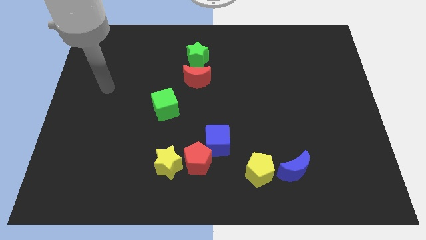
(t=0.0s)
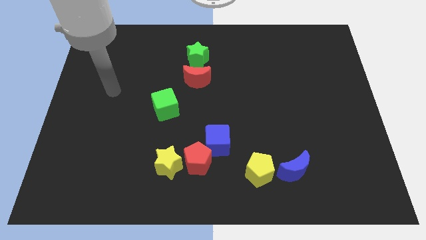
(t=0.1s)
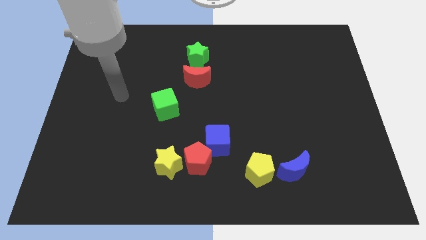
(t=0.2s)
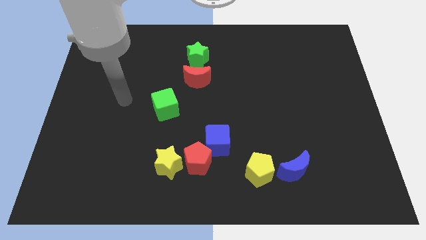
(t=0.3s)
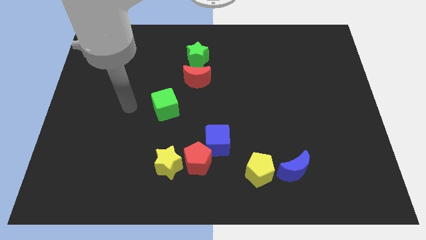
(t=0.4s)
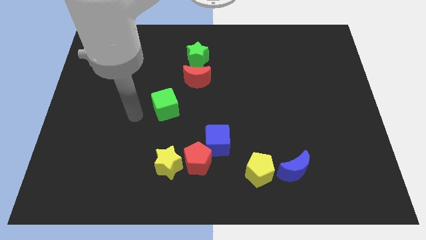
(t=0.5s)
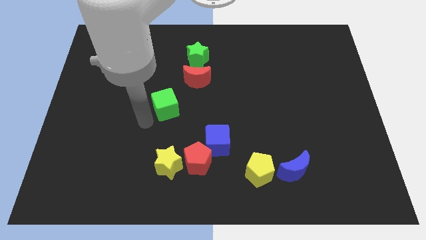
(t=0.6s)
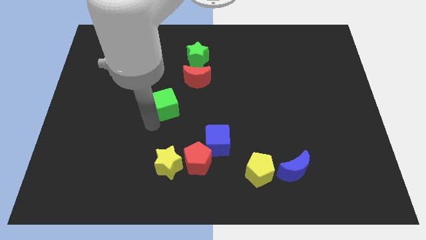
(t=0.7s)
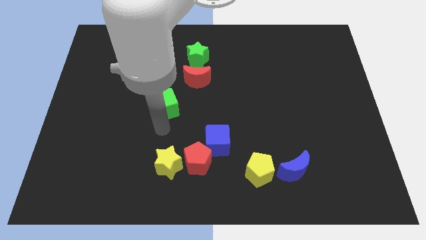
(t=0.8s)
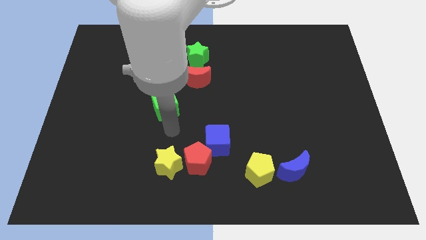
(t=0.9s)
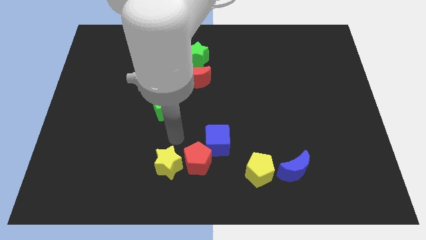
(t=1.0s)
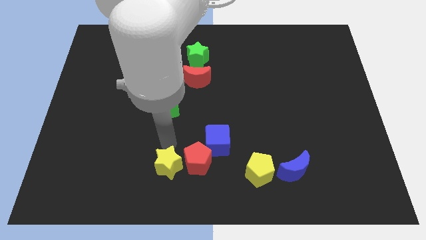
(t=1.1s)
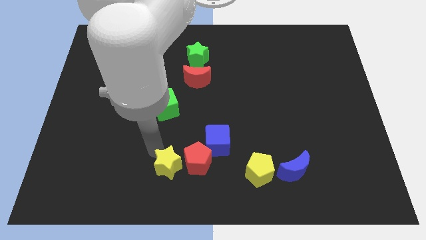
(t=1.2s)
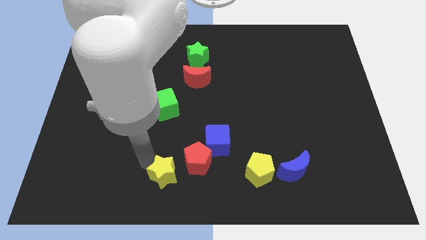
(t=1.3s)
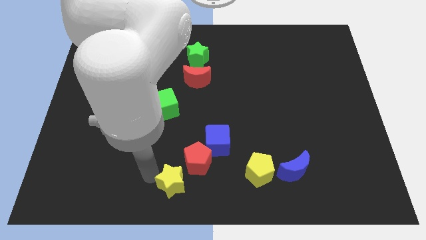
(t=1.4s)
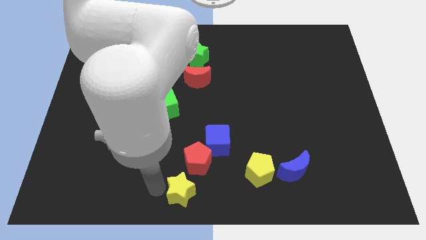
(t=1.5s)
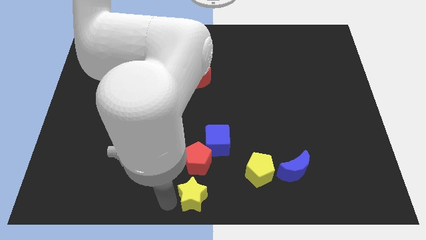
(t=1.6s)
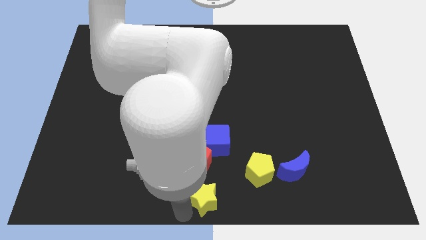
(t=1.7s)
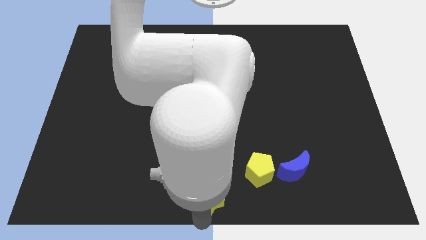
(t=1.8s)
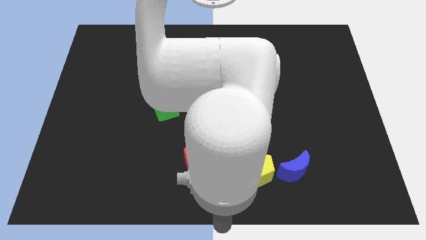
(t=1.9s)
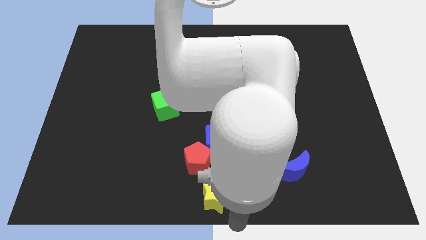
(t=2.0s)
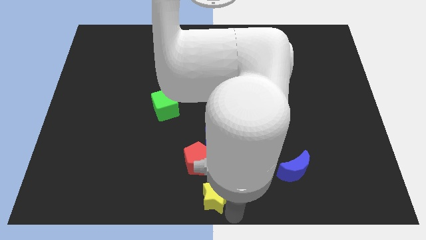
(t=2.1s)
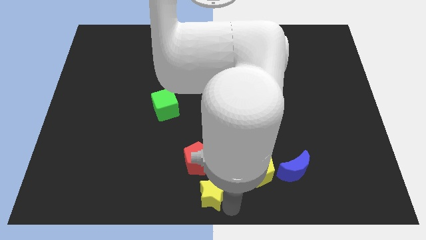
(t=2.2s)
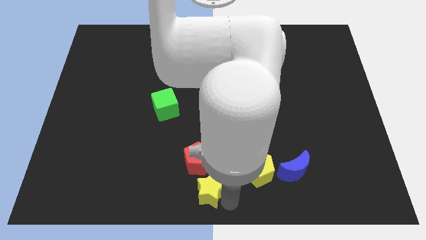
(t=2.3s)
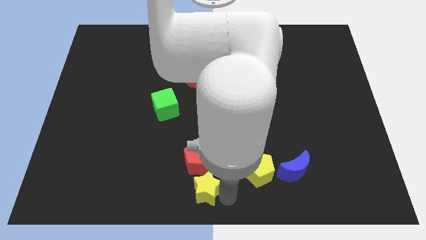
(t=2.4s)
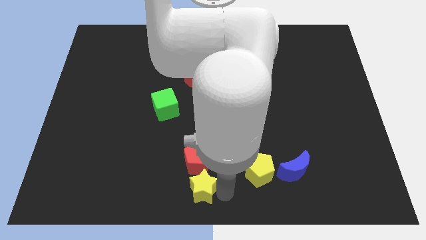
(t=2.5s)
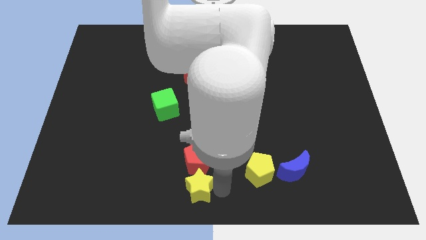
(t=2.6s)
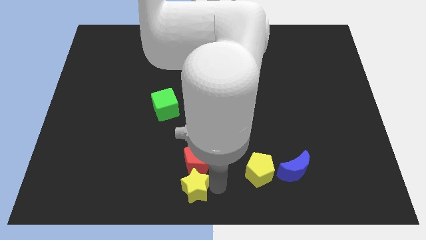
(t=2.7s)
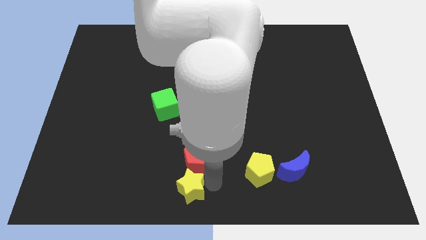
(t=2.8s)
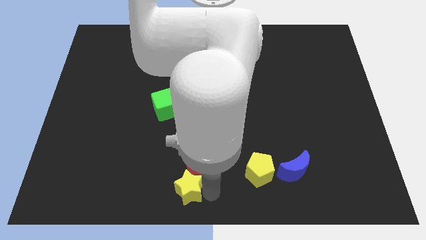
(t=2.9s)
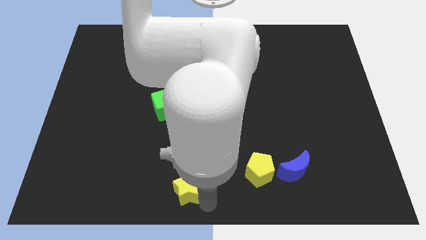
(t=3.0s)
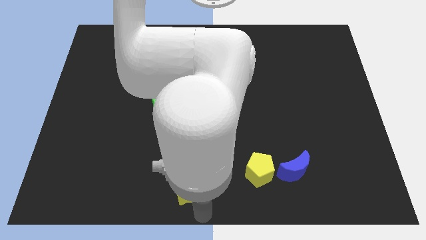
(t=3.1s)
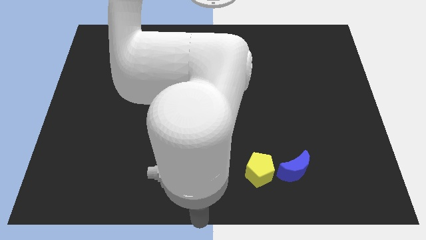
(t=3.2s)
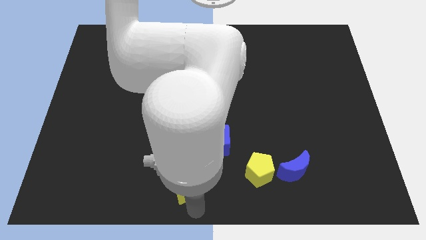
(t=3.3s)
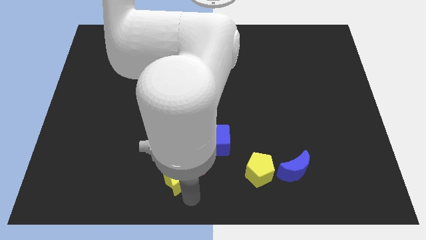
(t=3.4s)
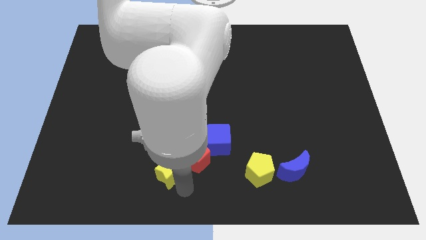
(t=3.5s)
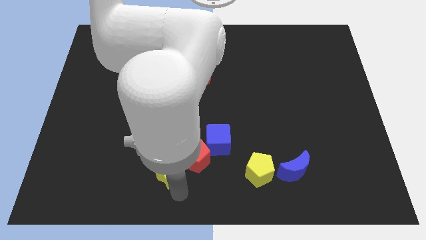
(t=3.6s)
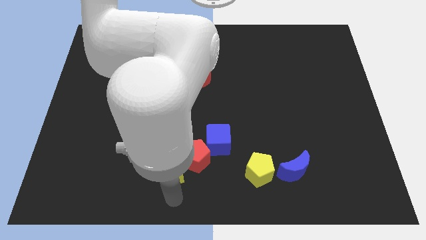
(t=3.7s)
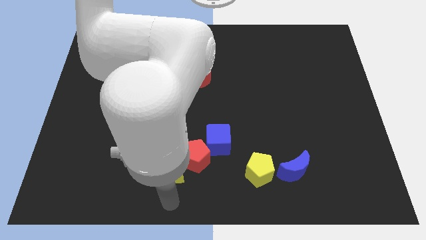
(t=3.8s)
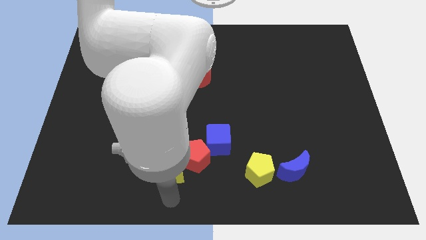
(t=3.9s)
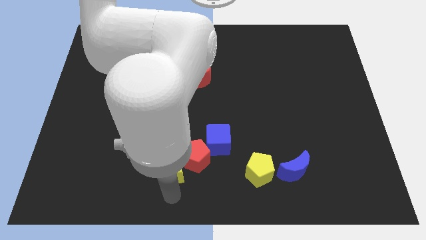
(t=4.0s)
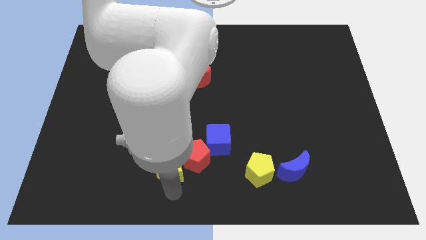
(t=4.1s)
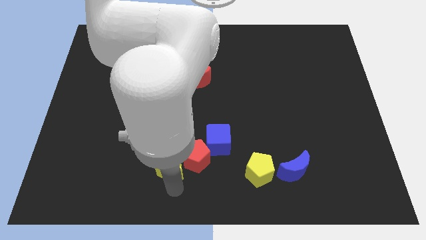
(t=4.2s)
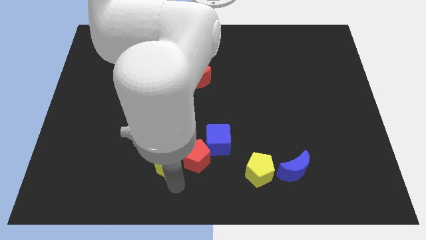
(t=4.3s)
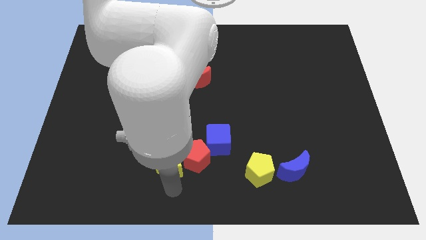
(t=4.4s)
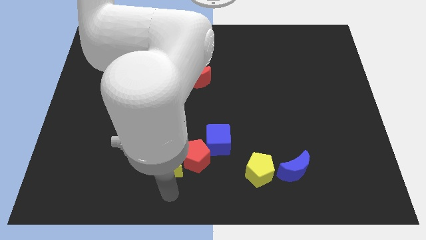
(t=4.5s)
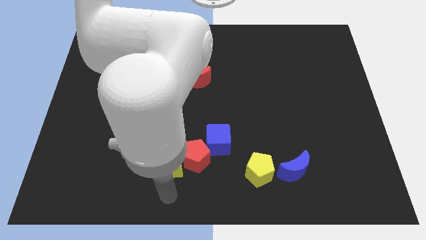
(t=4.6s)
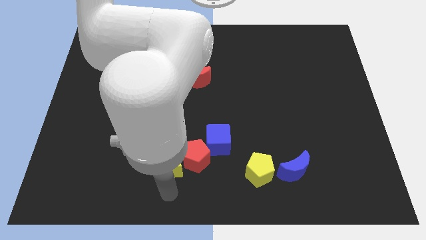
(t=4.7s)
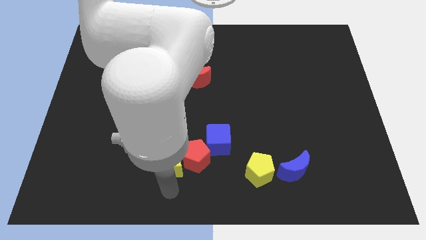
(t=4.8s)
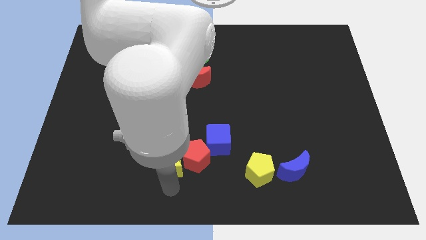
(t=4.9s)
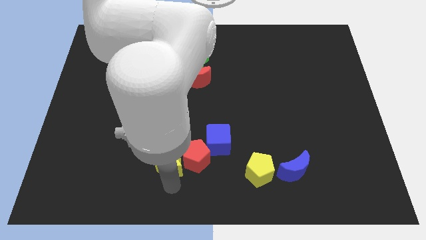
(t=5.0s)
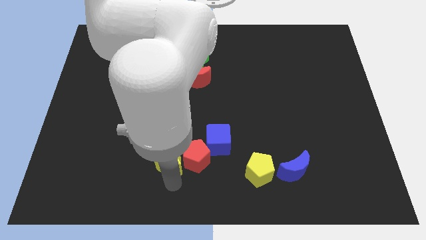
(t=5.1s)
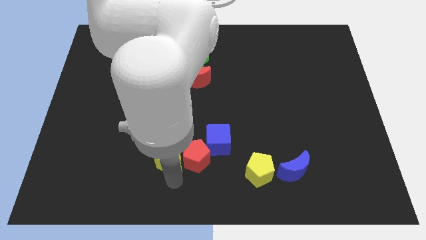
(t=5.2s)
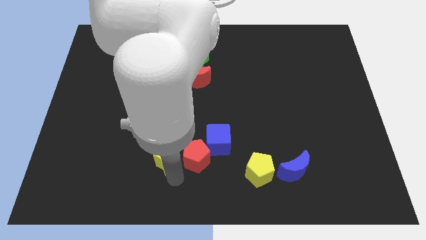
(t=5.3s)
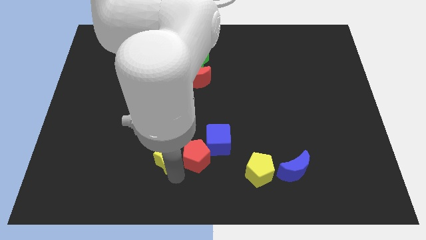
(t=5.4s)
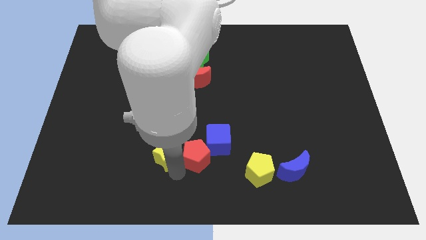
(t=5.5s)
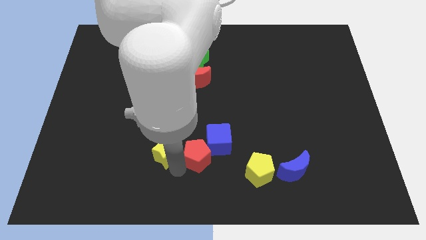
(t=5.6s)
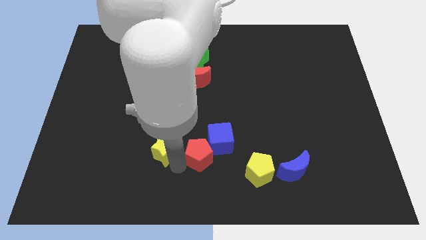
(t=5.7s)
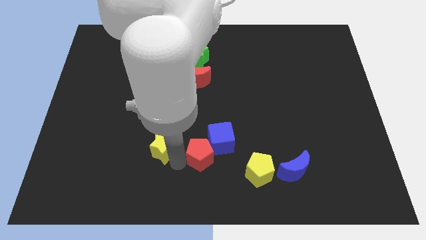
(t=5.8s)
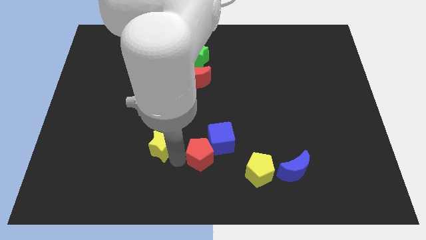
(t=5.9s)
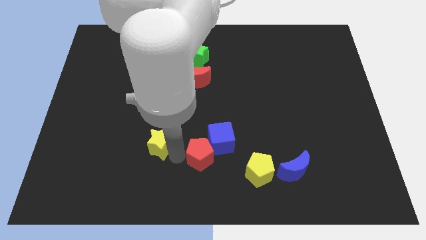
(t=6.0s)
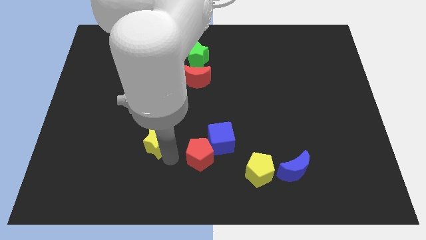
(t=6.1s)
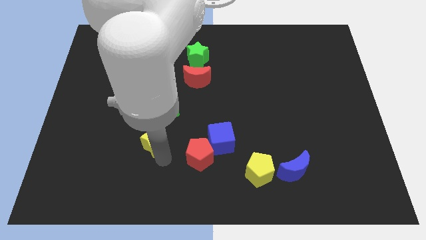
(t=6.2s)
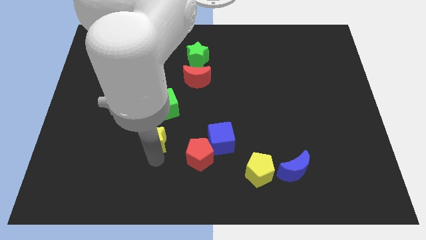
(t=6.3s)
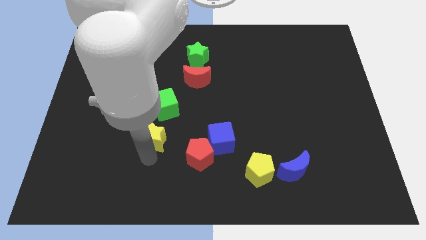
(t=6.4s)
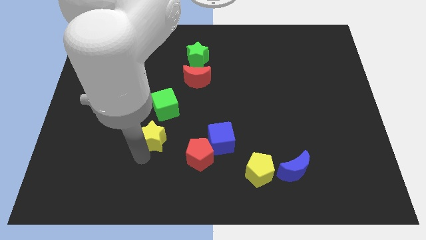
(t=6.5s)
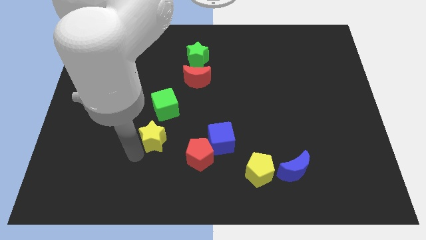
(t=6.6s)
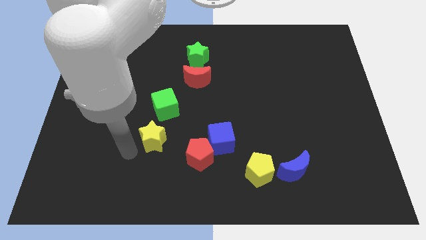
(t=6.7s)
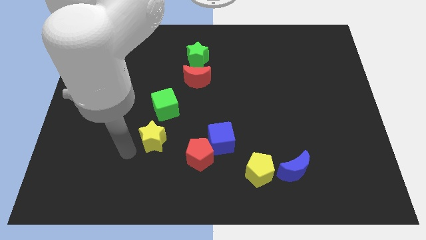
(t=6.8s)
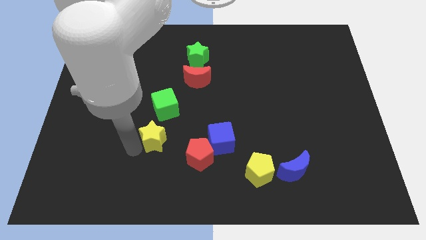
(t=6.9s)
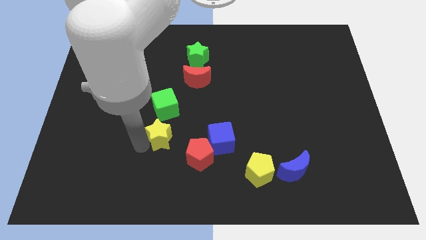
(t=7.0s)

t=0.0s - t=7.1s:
move the yellow star somewhat up

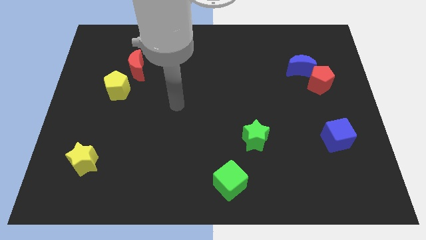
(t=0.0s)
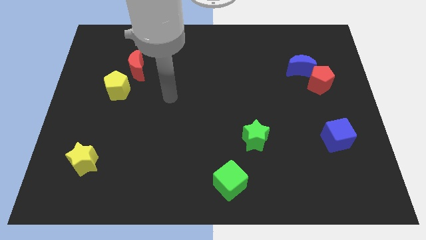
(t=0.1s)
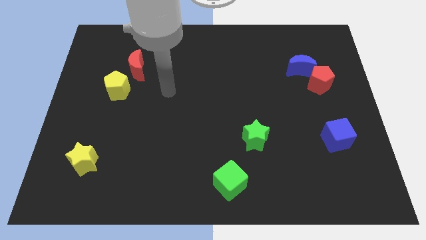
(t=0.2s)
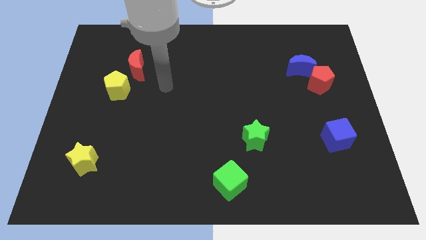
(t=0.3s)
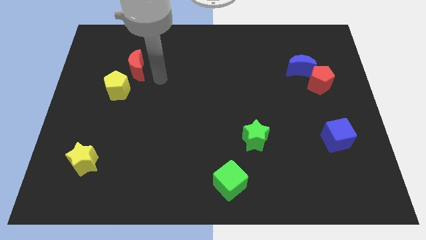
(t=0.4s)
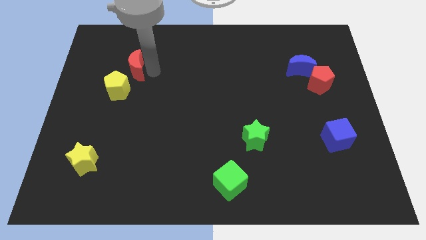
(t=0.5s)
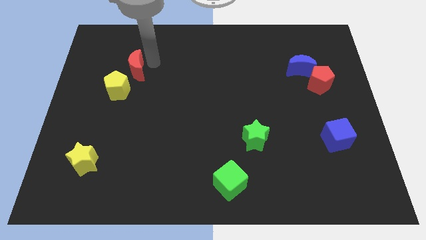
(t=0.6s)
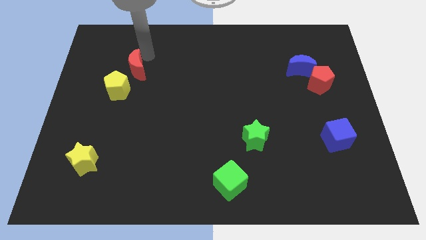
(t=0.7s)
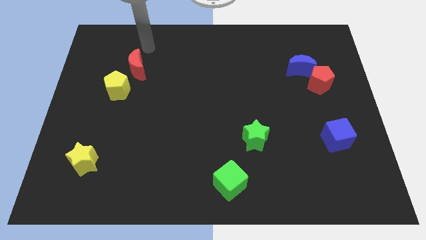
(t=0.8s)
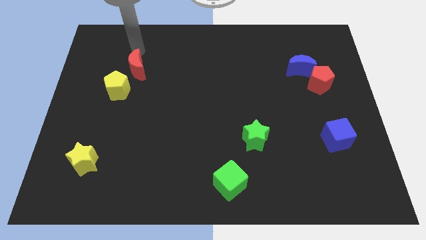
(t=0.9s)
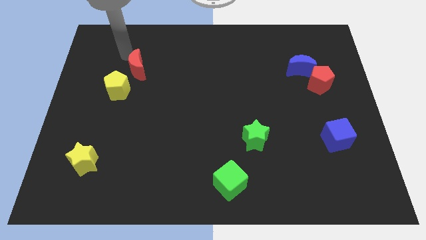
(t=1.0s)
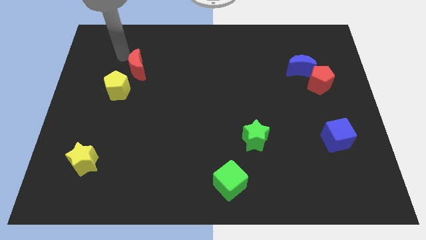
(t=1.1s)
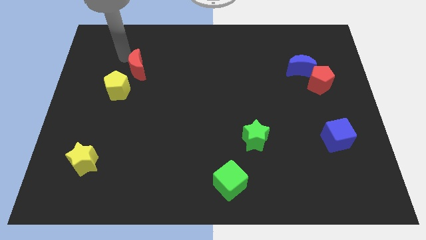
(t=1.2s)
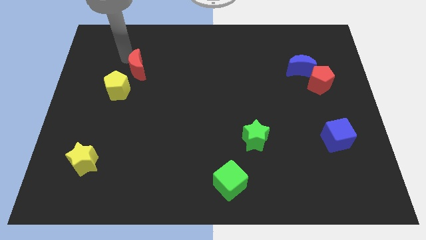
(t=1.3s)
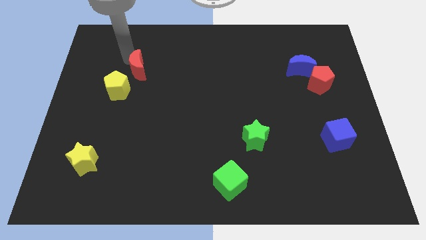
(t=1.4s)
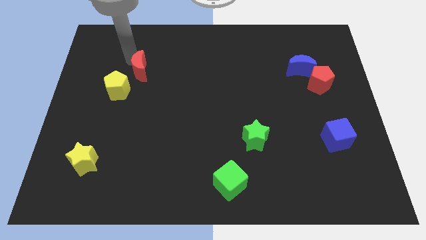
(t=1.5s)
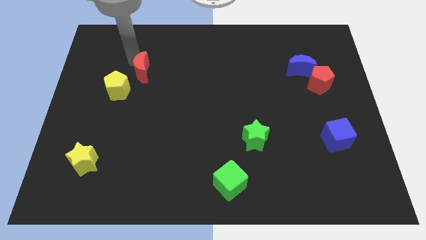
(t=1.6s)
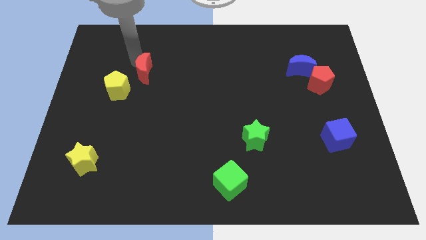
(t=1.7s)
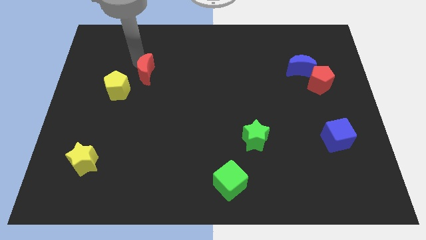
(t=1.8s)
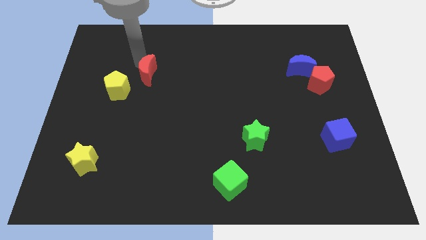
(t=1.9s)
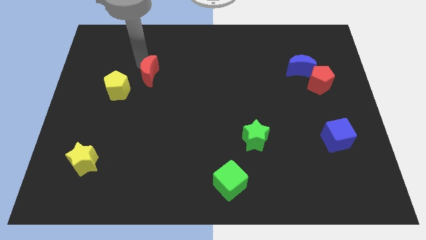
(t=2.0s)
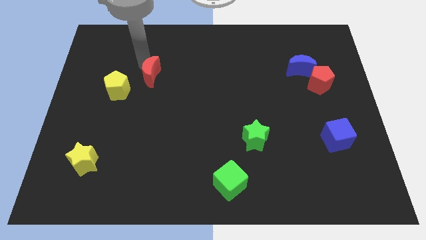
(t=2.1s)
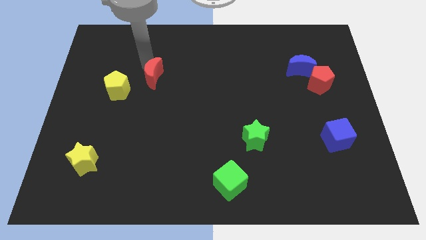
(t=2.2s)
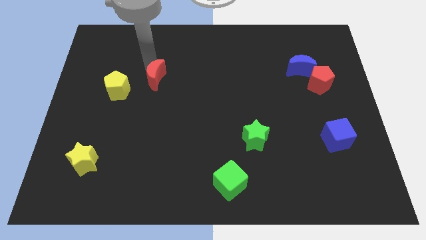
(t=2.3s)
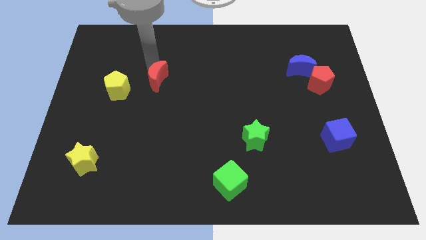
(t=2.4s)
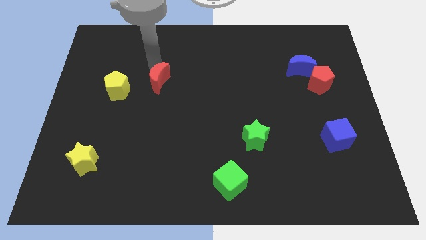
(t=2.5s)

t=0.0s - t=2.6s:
push the red moon down and right diagonally a bit
